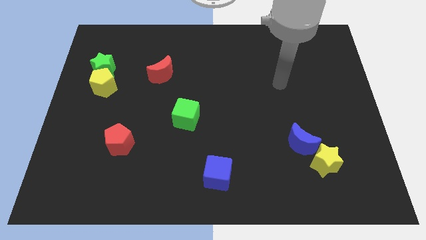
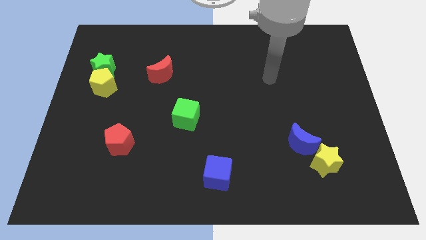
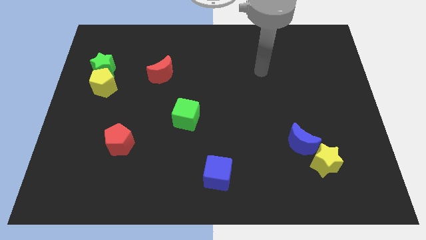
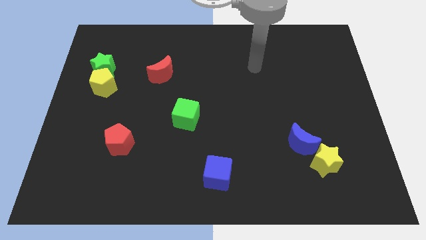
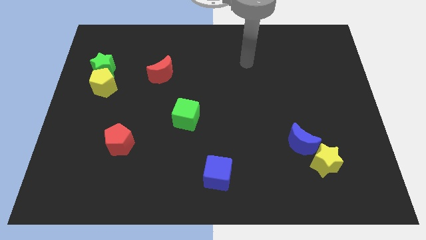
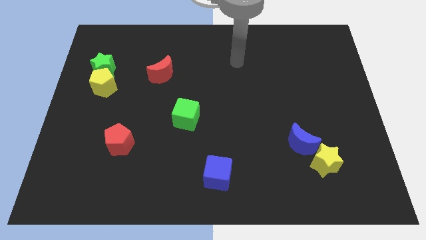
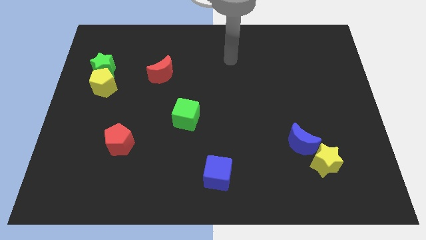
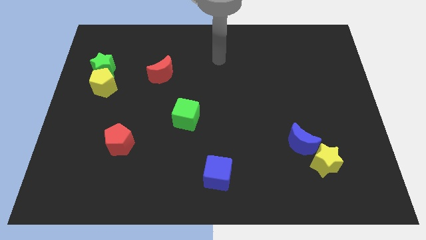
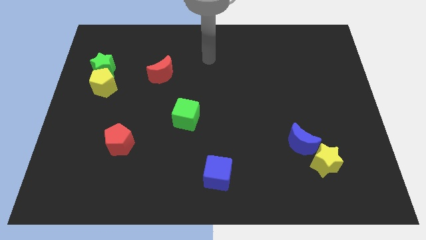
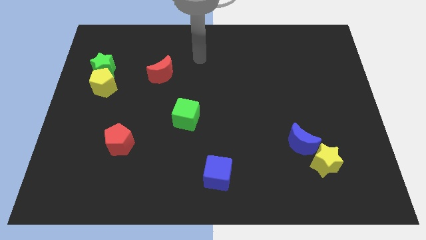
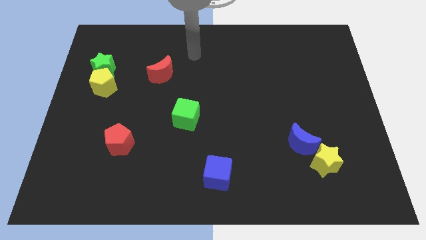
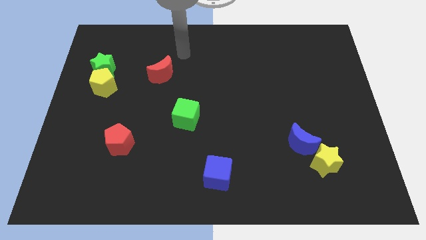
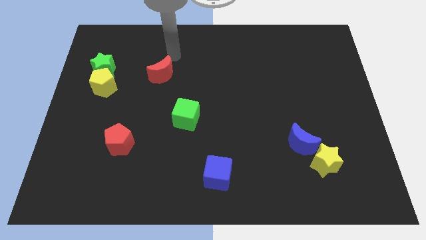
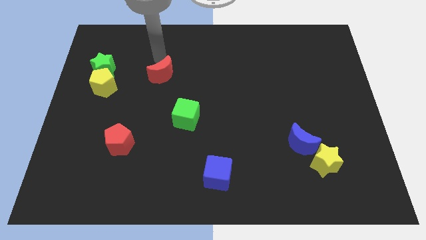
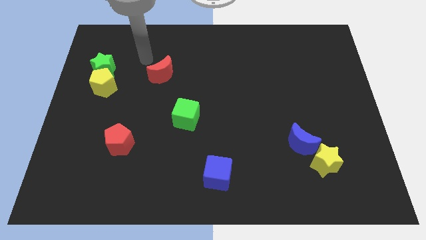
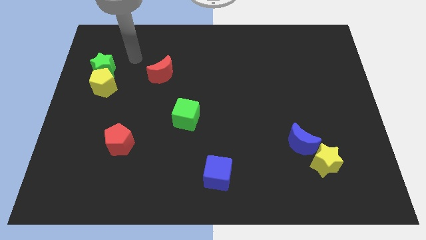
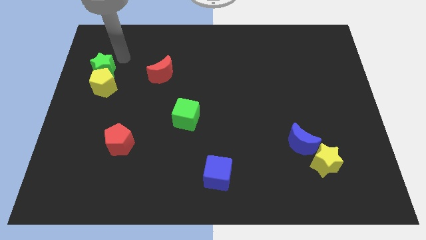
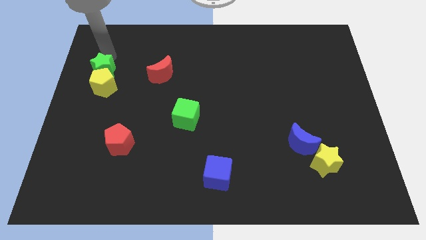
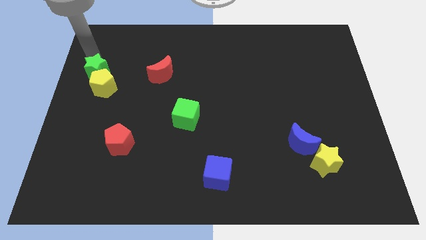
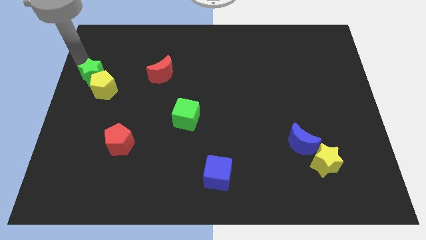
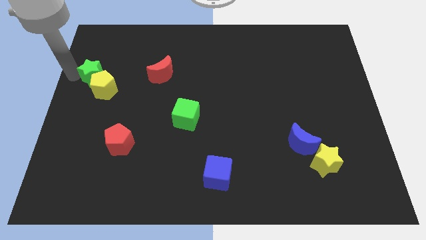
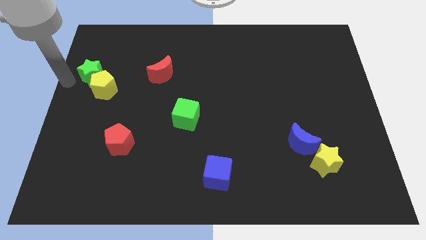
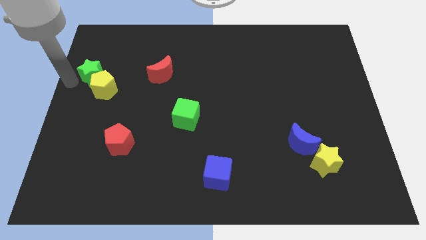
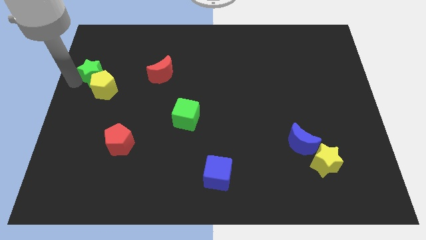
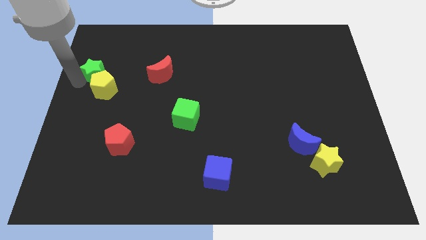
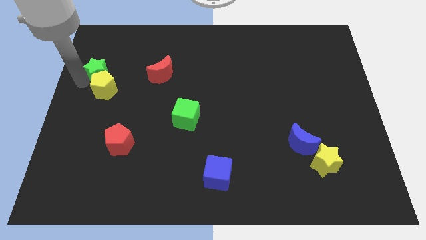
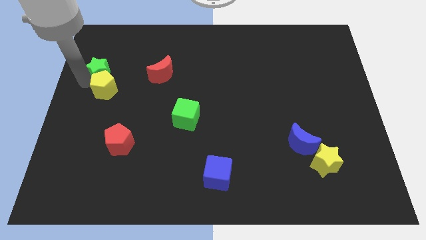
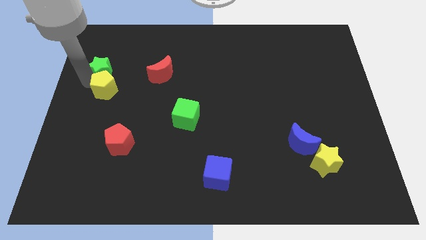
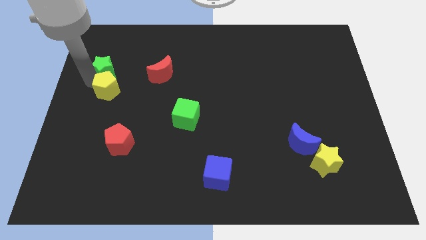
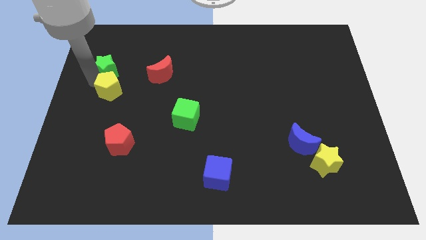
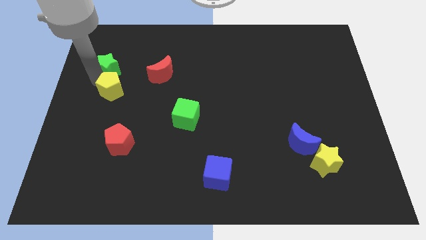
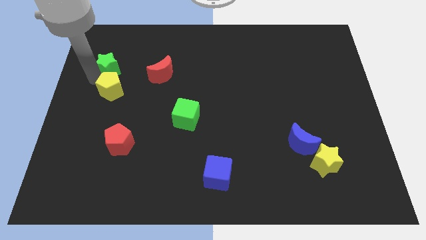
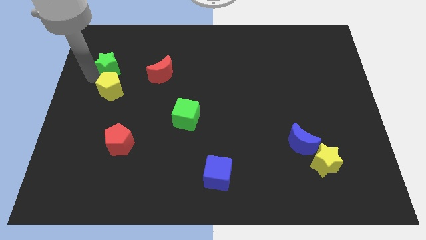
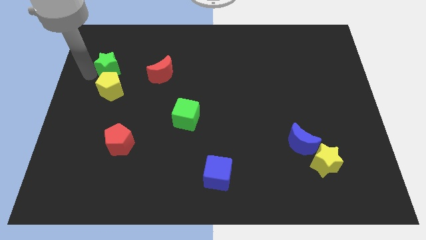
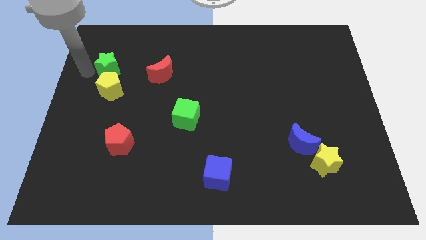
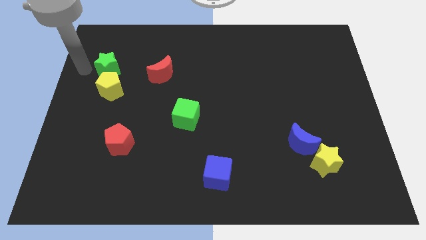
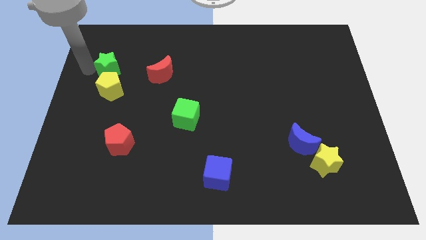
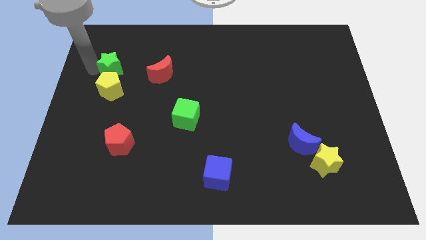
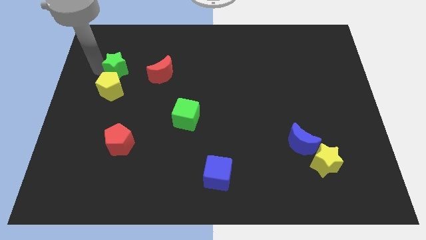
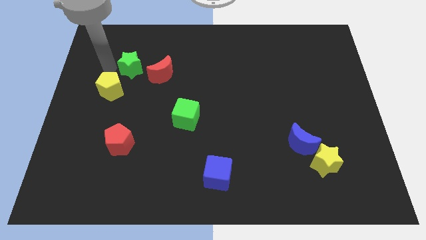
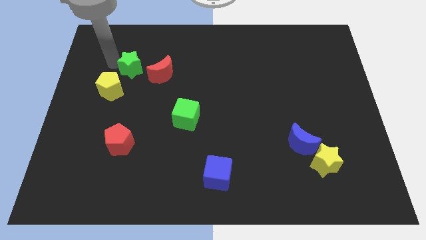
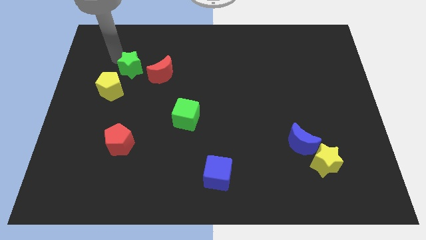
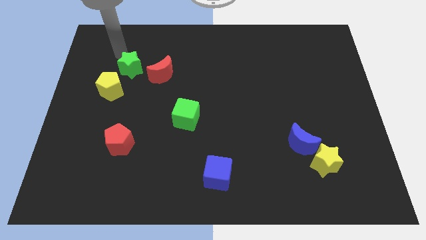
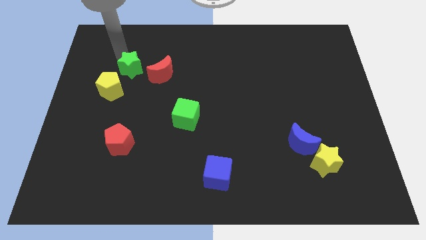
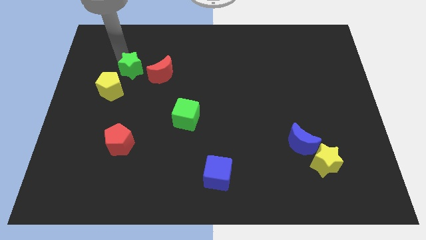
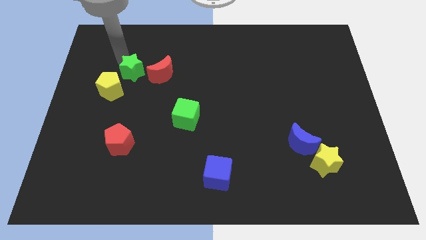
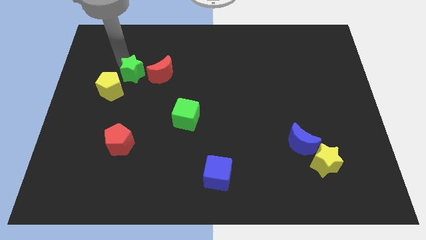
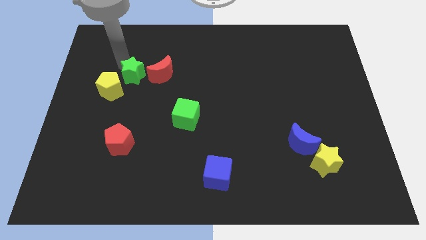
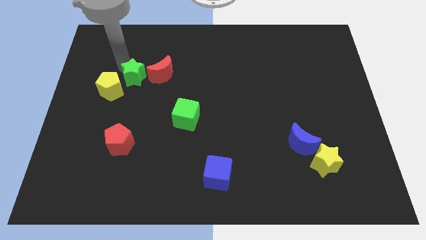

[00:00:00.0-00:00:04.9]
push the green star slightly diagonally downwards and right

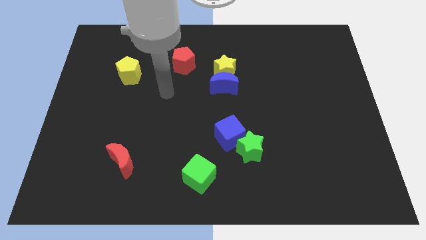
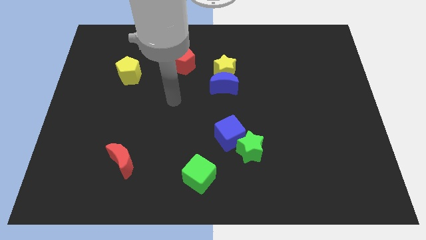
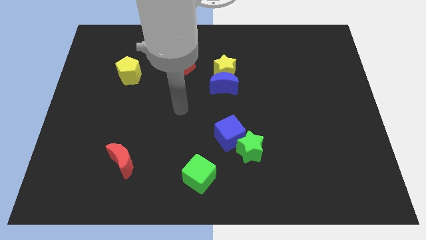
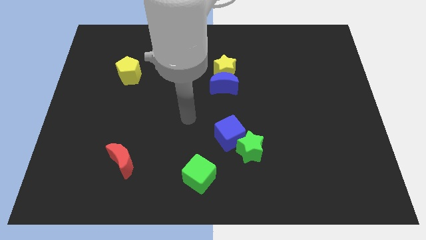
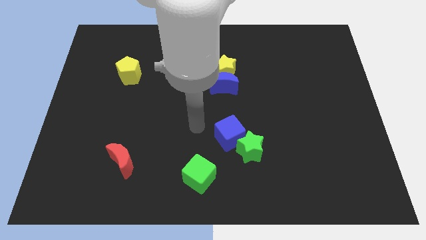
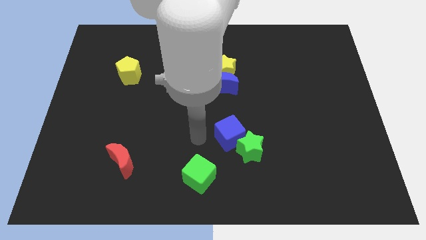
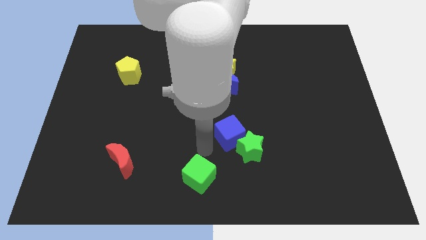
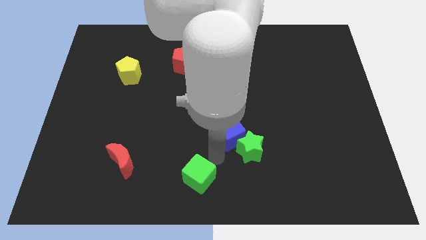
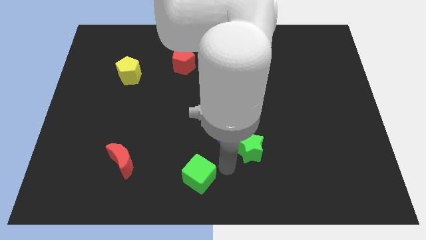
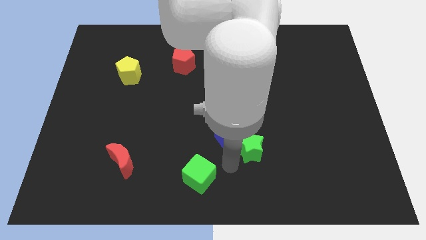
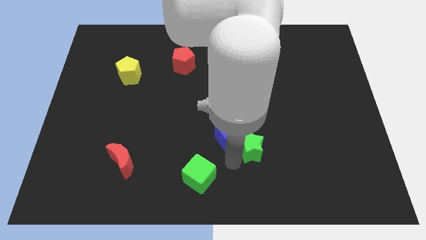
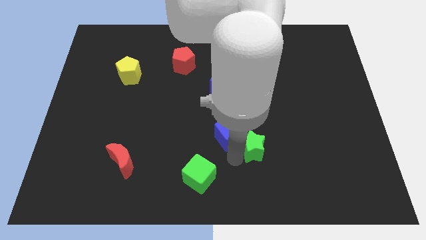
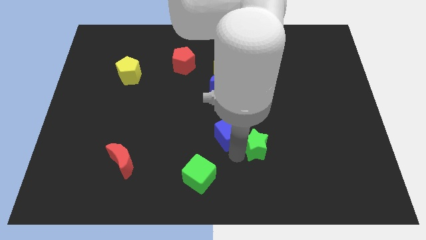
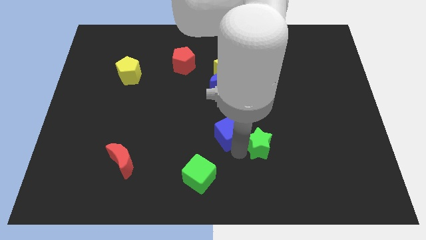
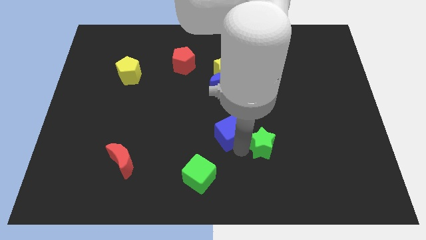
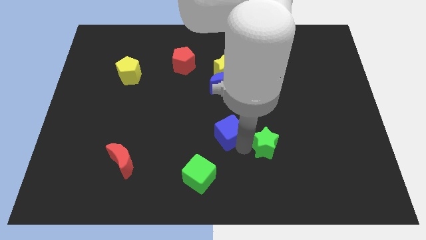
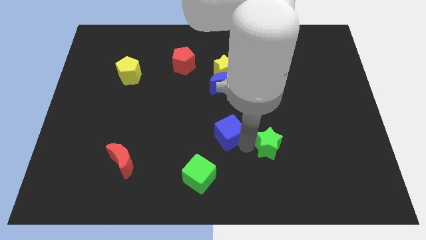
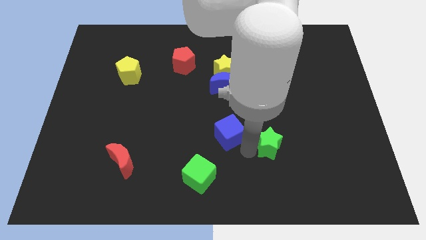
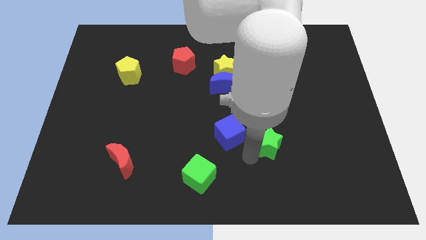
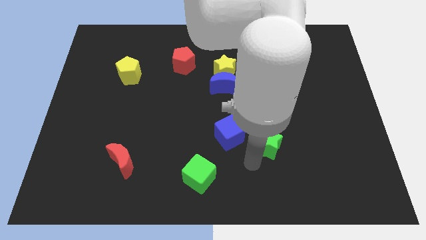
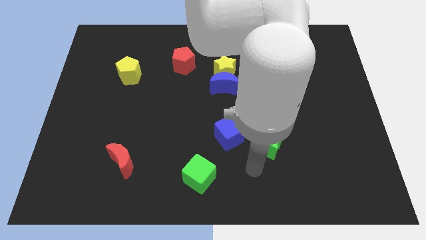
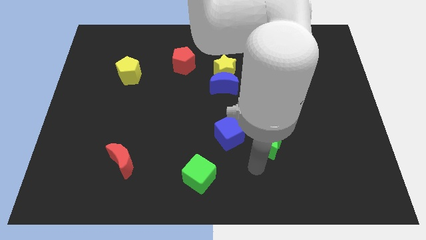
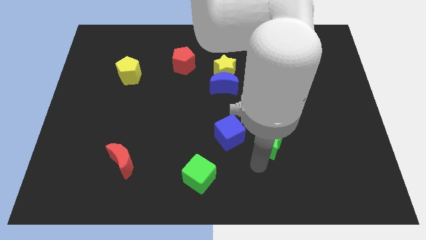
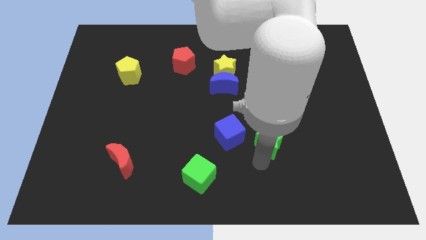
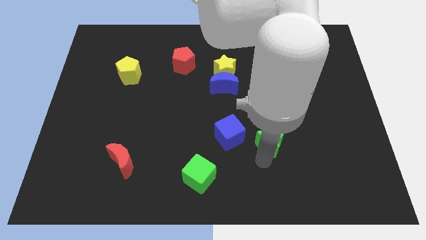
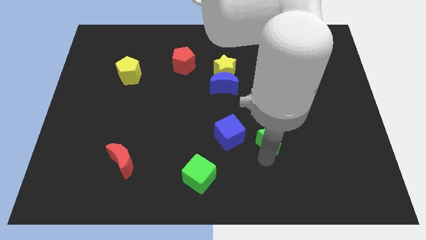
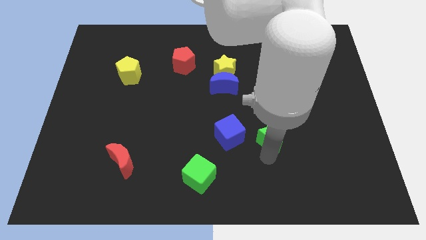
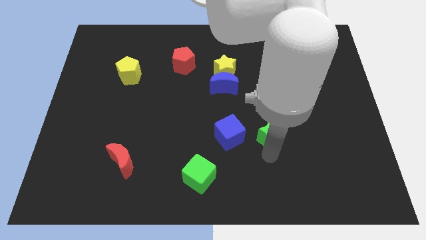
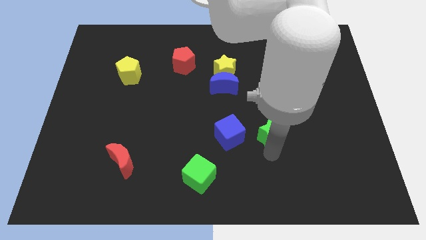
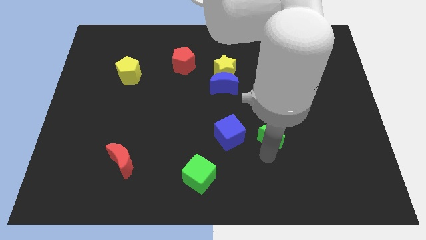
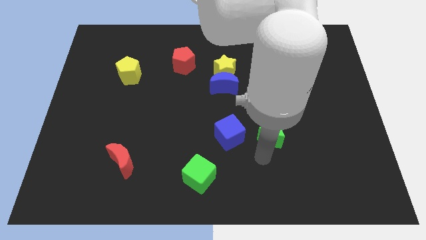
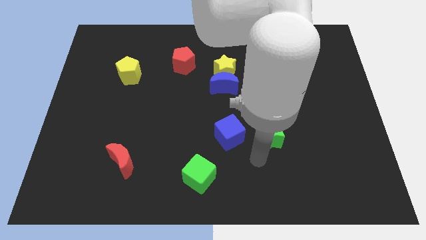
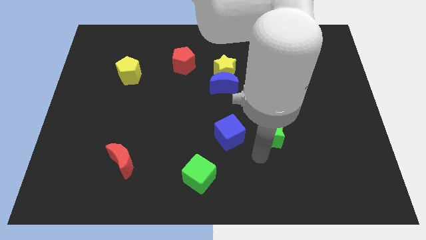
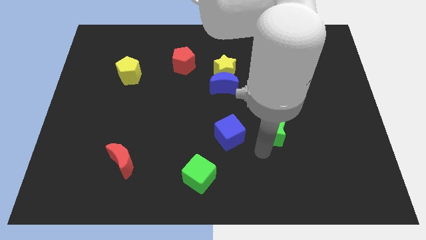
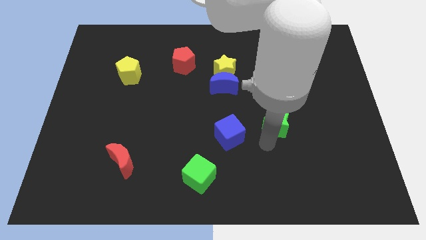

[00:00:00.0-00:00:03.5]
slightly push the green star up and right
